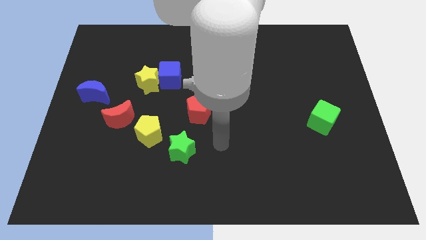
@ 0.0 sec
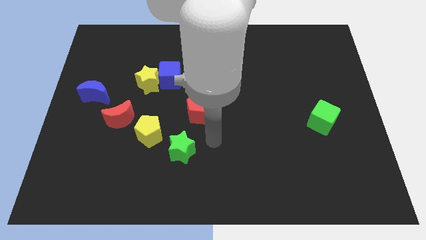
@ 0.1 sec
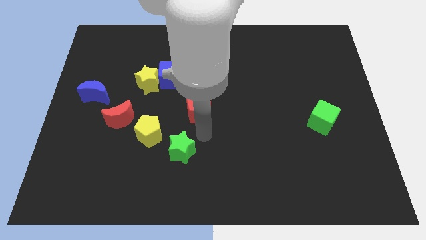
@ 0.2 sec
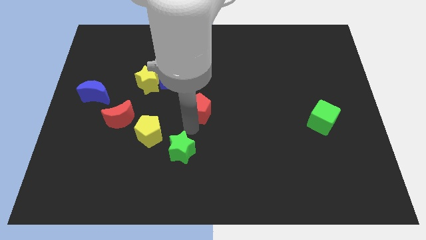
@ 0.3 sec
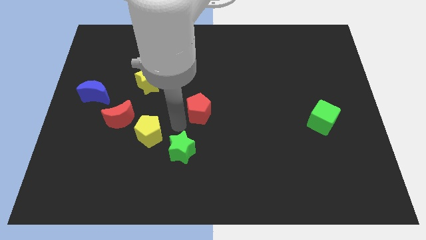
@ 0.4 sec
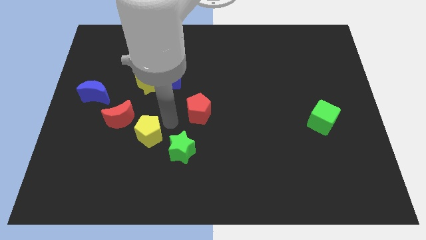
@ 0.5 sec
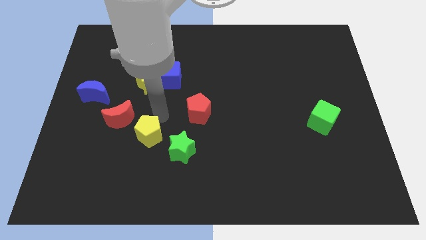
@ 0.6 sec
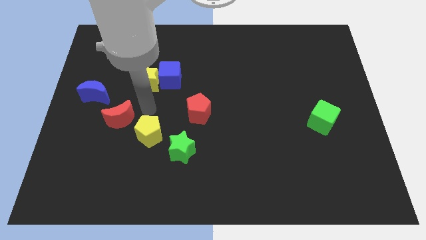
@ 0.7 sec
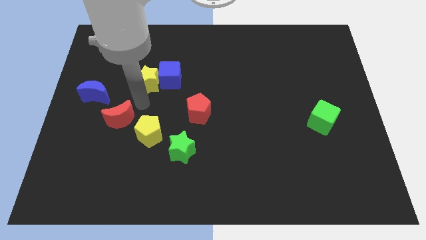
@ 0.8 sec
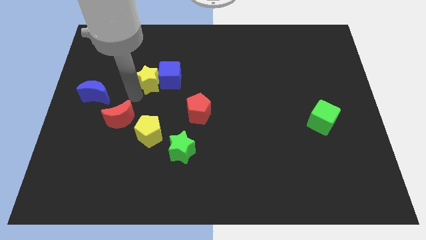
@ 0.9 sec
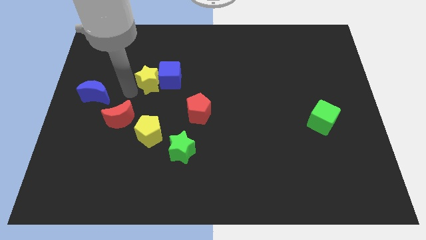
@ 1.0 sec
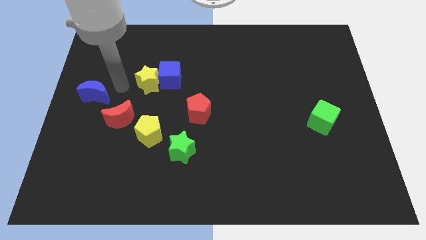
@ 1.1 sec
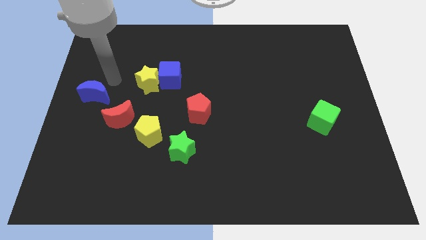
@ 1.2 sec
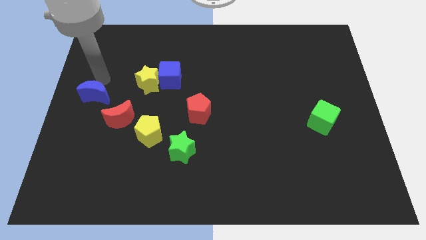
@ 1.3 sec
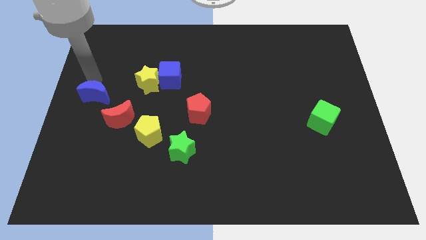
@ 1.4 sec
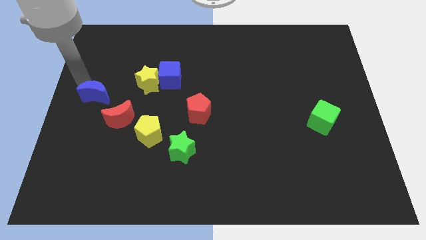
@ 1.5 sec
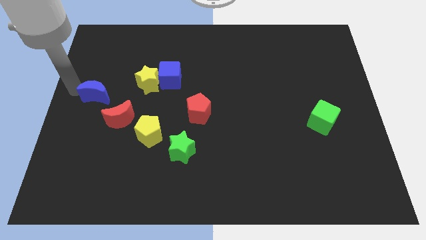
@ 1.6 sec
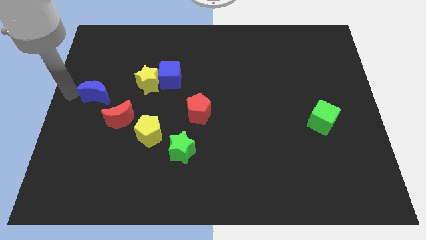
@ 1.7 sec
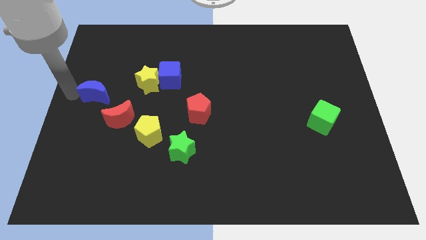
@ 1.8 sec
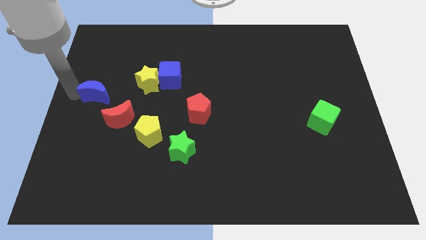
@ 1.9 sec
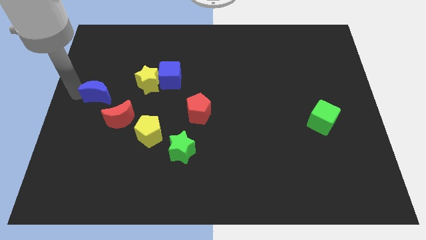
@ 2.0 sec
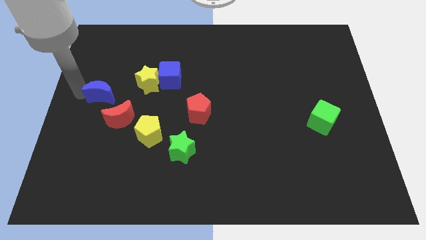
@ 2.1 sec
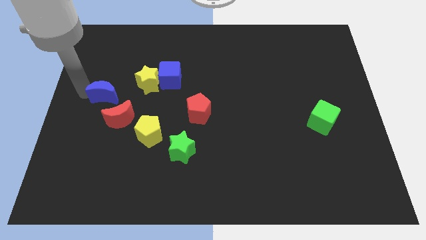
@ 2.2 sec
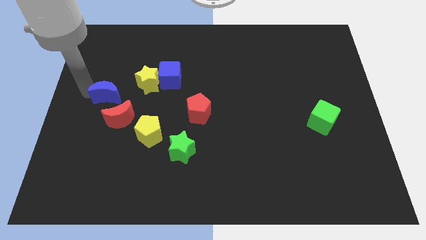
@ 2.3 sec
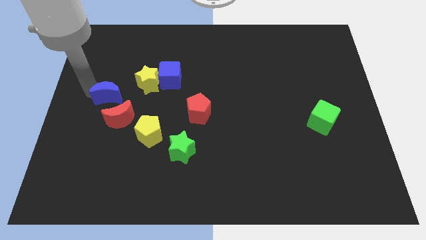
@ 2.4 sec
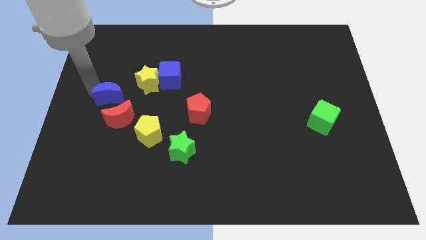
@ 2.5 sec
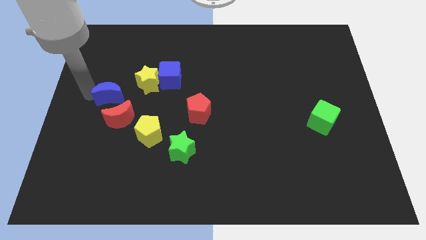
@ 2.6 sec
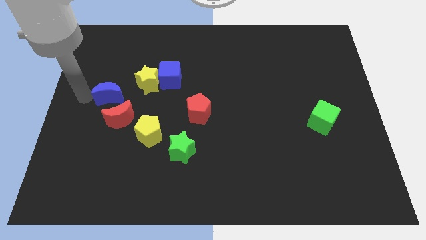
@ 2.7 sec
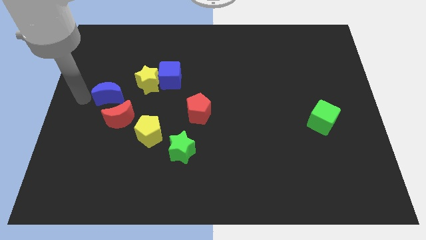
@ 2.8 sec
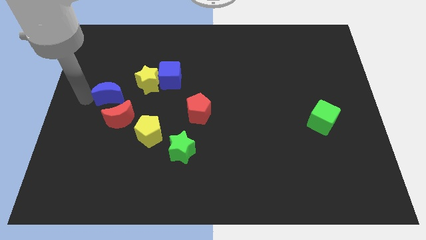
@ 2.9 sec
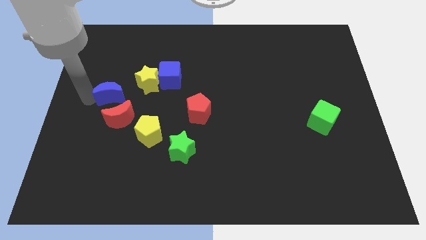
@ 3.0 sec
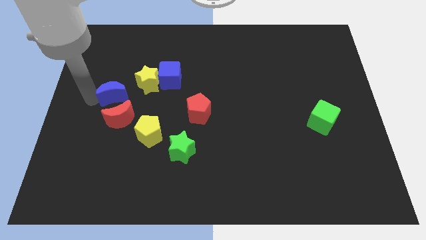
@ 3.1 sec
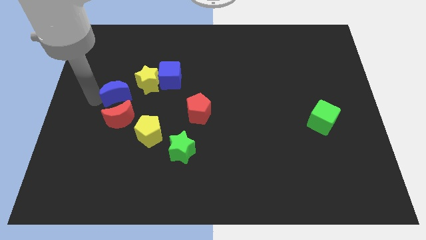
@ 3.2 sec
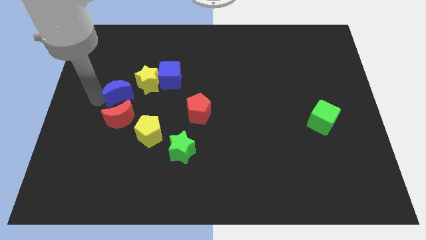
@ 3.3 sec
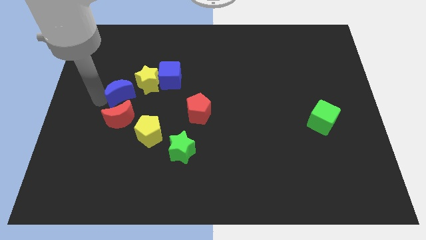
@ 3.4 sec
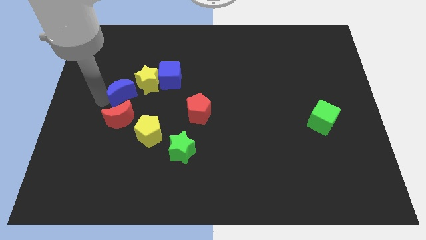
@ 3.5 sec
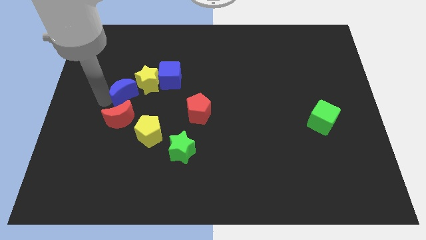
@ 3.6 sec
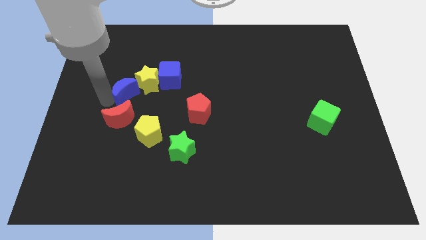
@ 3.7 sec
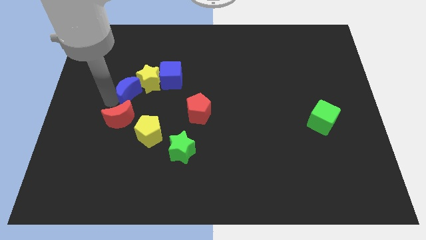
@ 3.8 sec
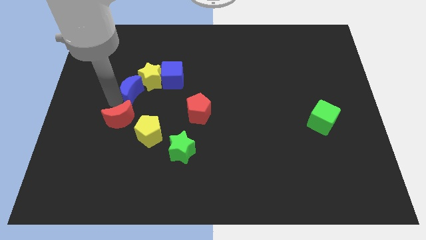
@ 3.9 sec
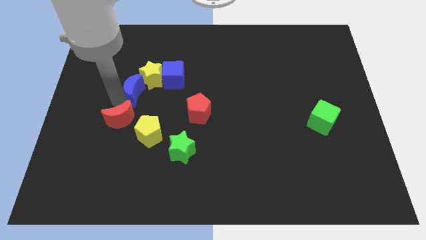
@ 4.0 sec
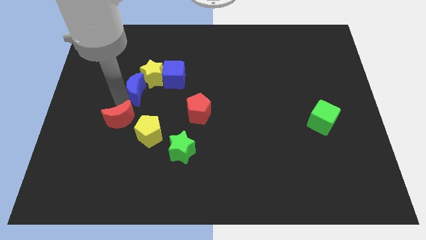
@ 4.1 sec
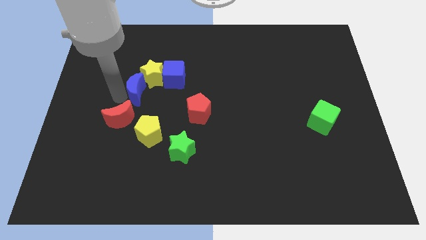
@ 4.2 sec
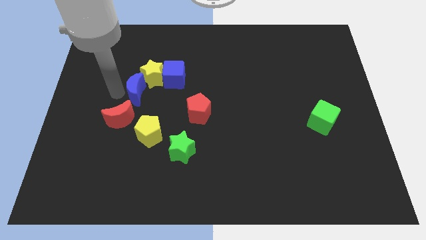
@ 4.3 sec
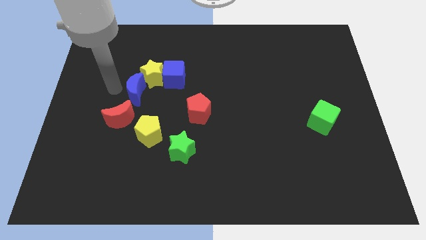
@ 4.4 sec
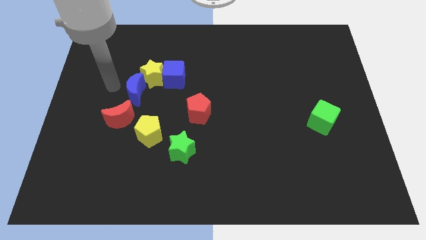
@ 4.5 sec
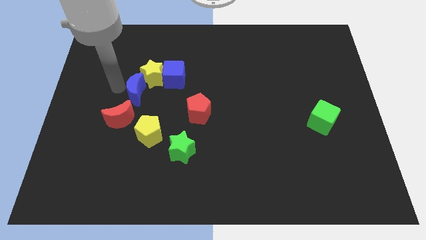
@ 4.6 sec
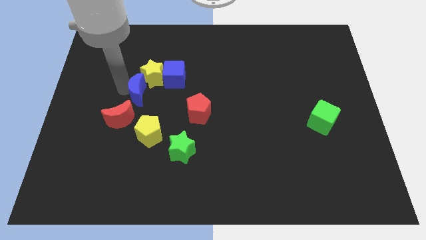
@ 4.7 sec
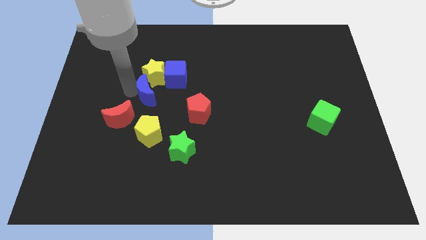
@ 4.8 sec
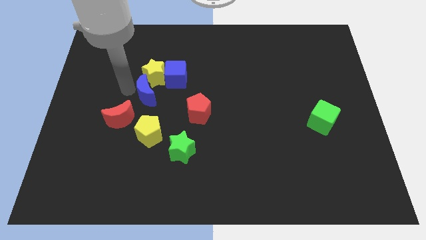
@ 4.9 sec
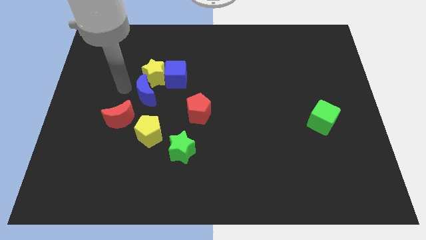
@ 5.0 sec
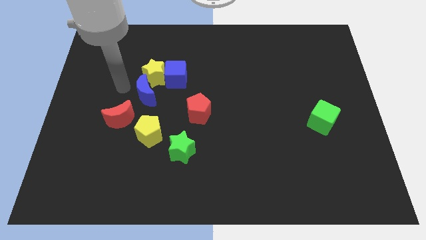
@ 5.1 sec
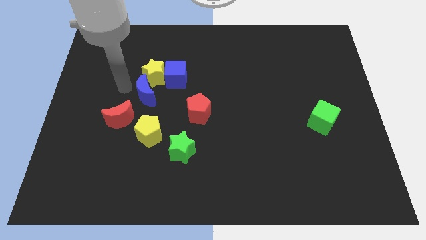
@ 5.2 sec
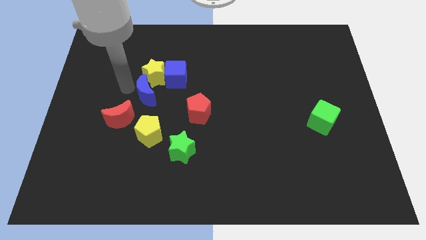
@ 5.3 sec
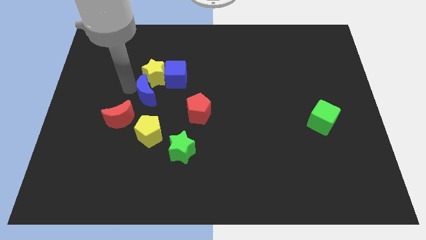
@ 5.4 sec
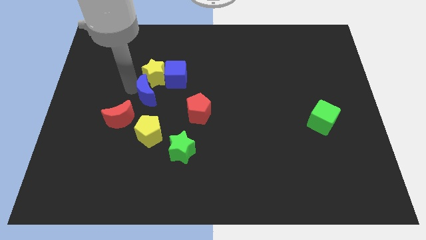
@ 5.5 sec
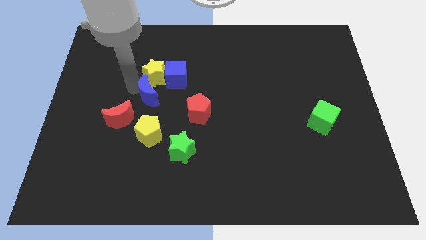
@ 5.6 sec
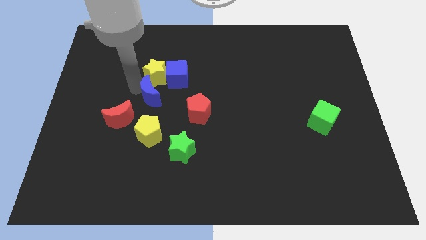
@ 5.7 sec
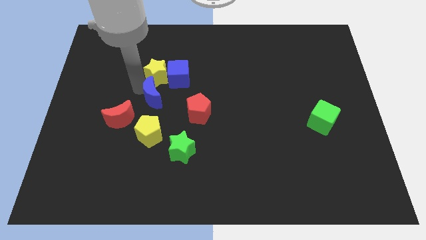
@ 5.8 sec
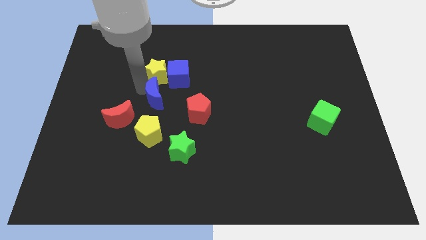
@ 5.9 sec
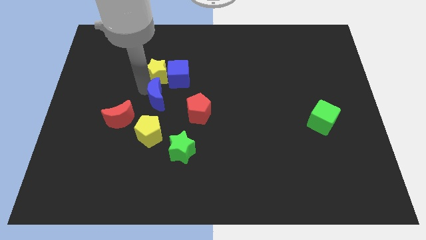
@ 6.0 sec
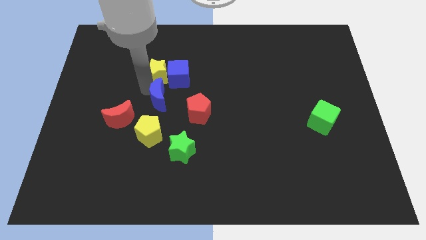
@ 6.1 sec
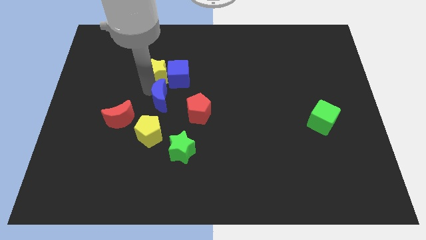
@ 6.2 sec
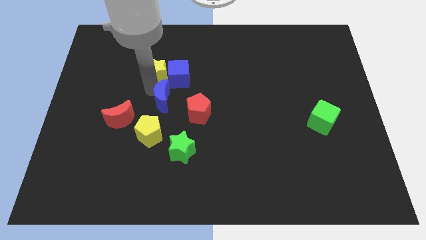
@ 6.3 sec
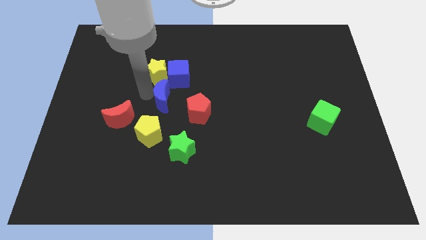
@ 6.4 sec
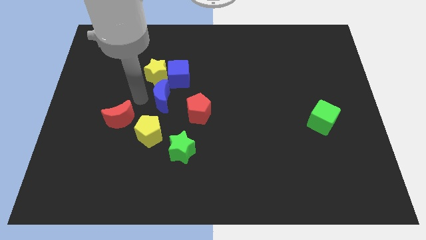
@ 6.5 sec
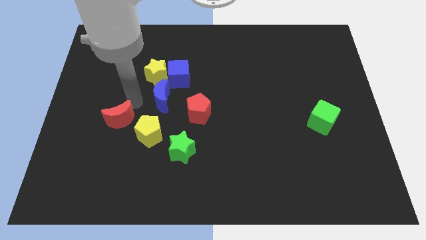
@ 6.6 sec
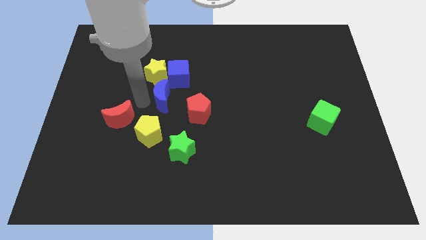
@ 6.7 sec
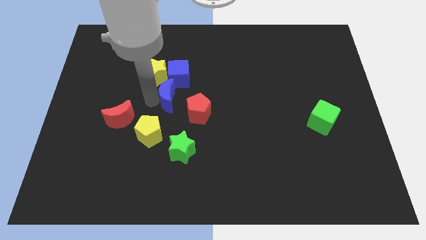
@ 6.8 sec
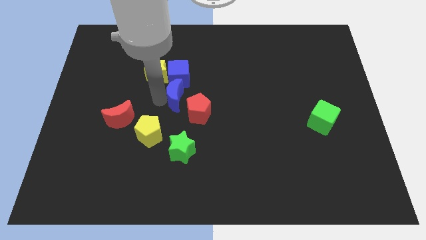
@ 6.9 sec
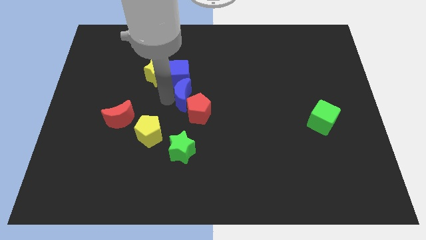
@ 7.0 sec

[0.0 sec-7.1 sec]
move the blue moon to the right

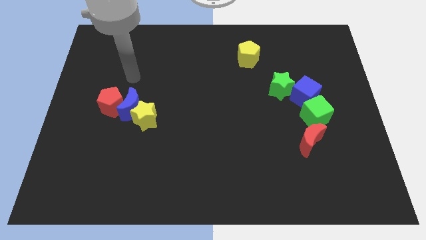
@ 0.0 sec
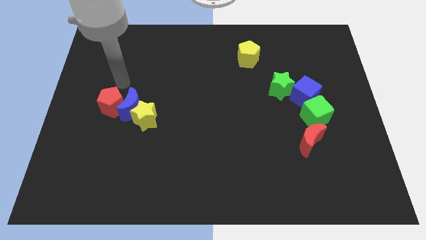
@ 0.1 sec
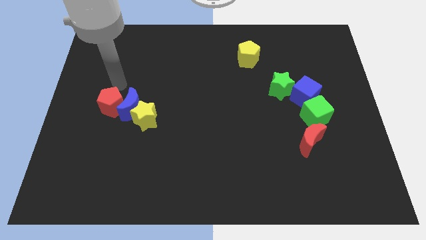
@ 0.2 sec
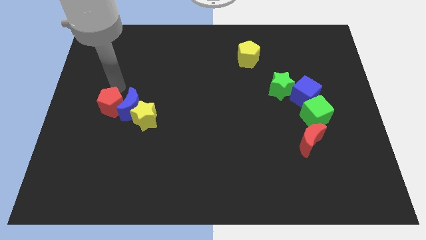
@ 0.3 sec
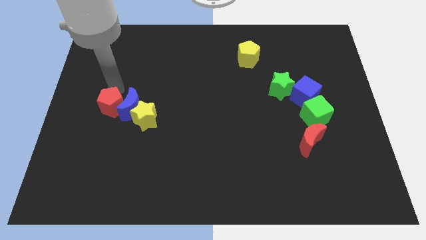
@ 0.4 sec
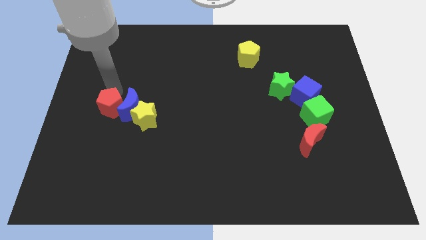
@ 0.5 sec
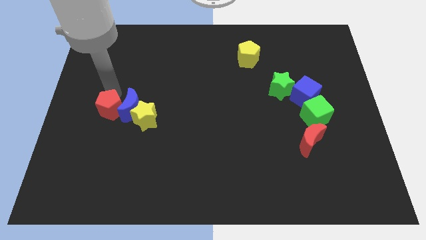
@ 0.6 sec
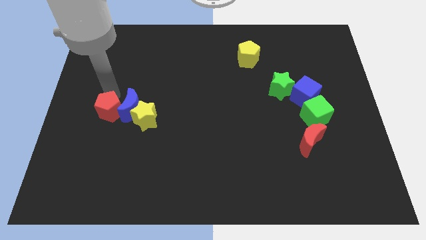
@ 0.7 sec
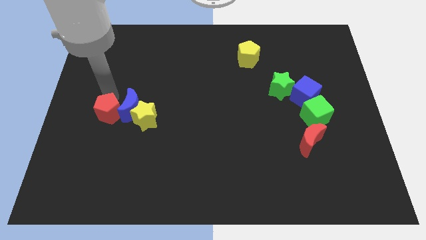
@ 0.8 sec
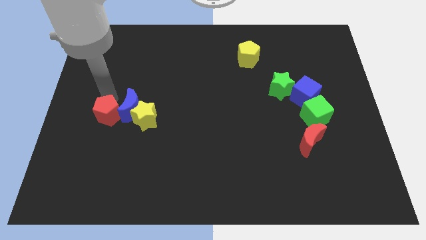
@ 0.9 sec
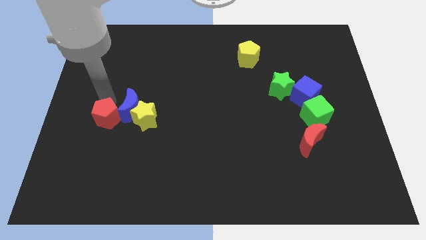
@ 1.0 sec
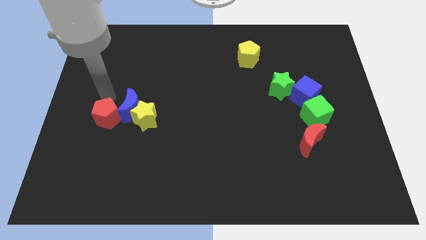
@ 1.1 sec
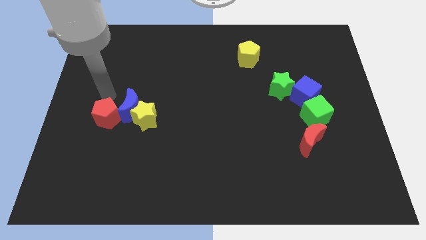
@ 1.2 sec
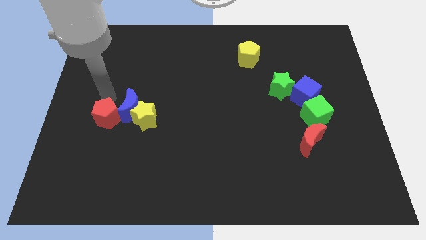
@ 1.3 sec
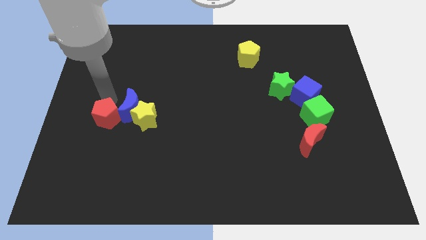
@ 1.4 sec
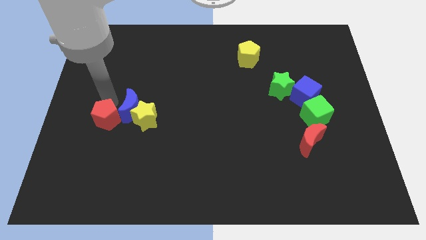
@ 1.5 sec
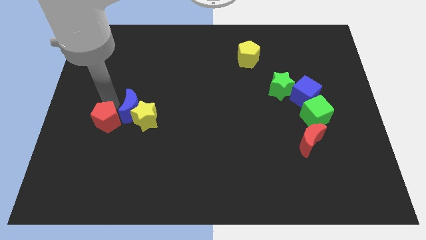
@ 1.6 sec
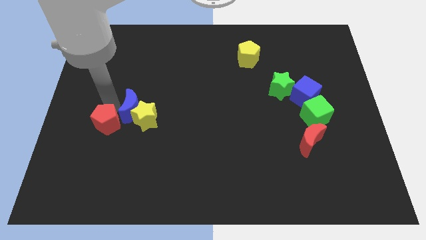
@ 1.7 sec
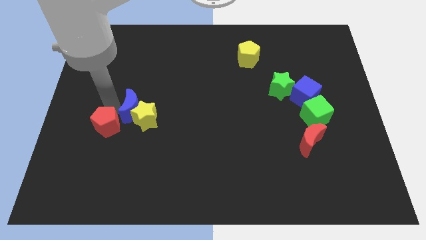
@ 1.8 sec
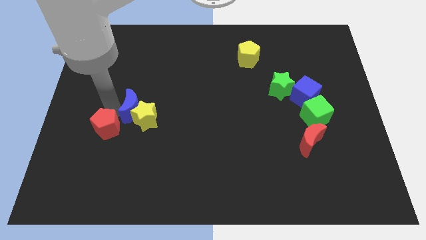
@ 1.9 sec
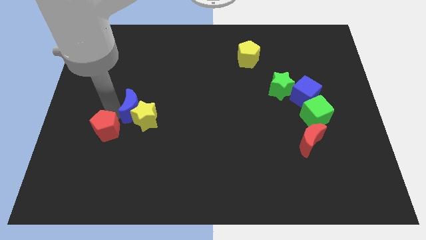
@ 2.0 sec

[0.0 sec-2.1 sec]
slide the red pentagon down a bit
